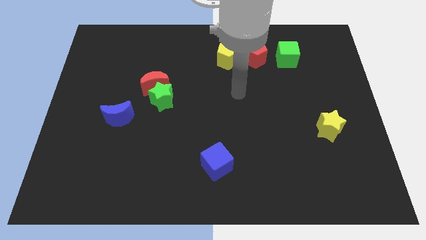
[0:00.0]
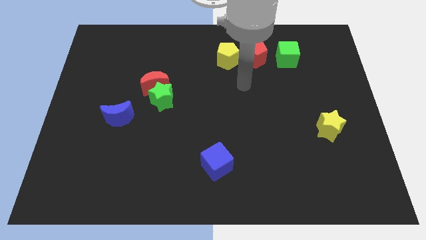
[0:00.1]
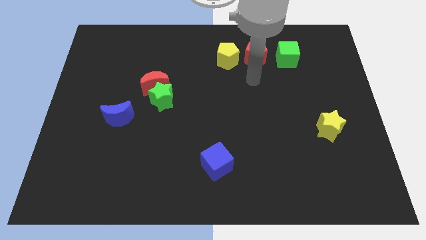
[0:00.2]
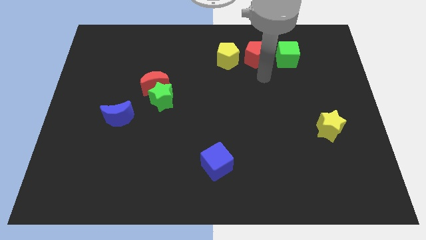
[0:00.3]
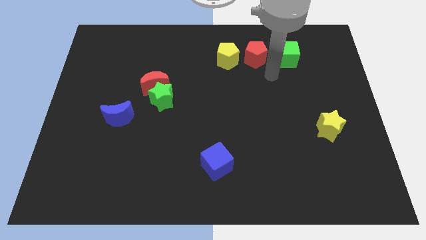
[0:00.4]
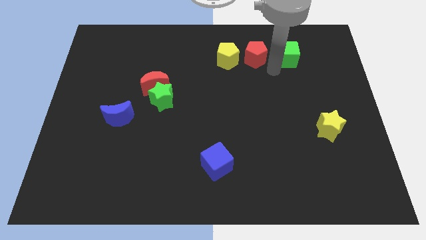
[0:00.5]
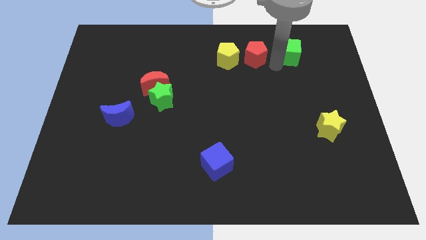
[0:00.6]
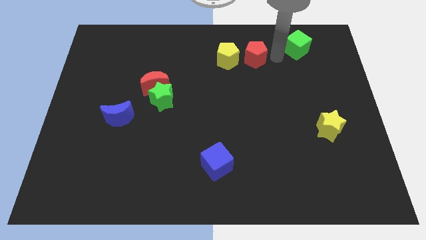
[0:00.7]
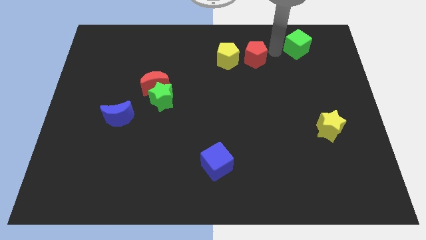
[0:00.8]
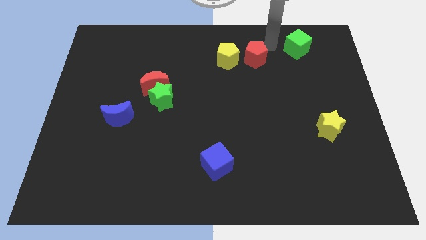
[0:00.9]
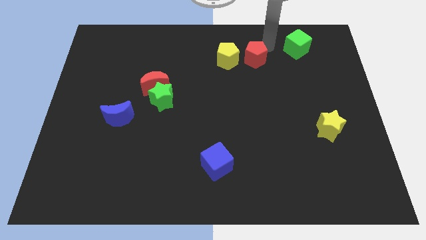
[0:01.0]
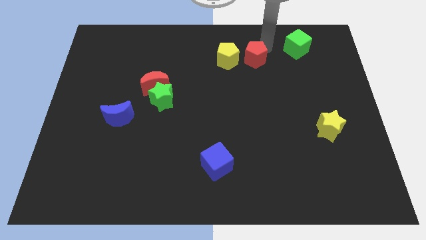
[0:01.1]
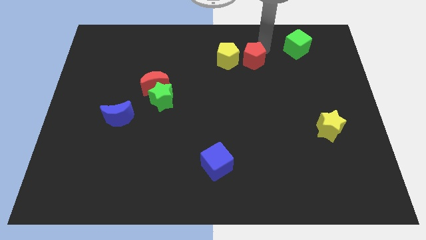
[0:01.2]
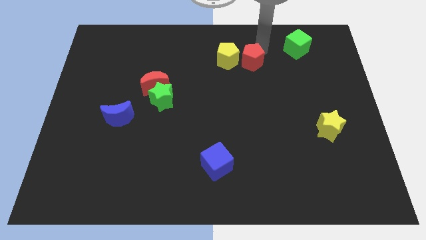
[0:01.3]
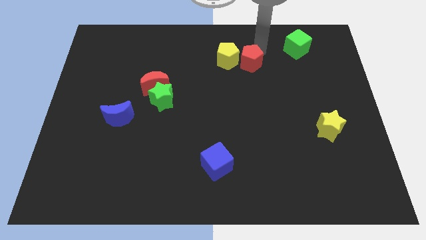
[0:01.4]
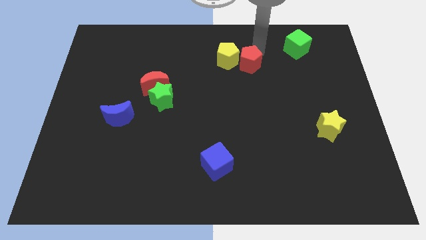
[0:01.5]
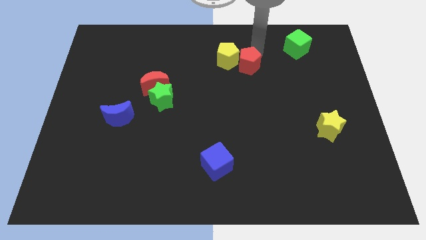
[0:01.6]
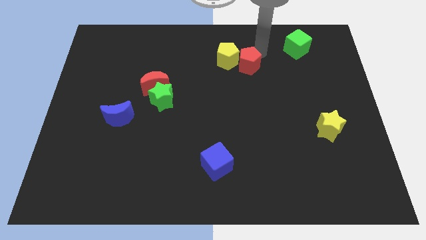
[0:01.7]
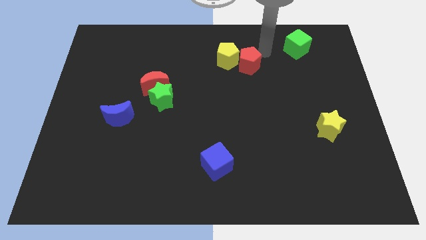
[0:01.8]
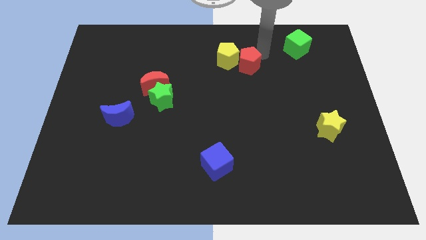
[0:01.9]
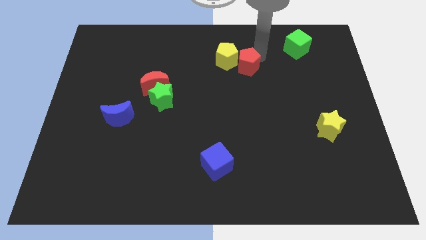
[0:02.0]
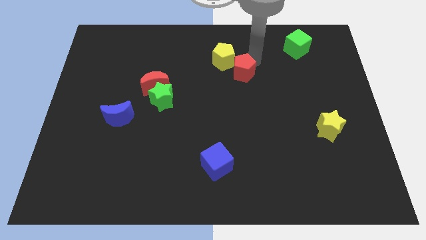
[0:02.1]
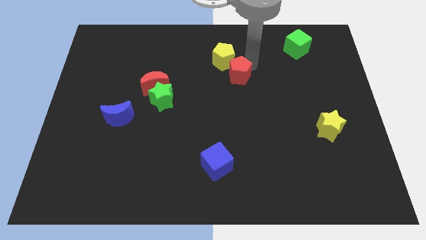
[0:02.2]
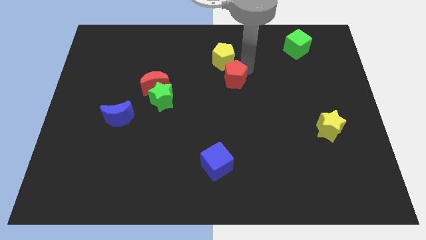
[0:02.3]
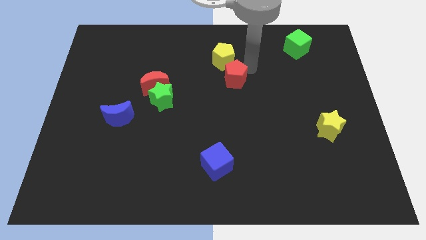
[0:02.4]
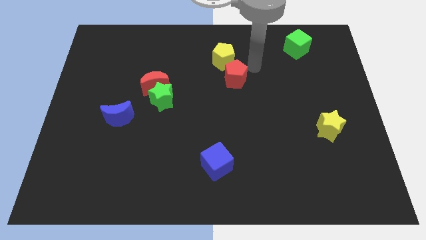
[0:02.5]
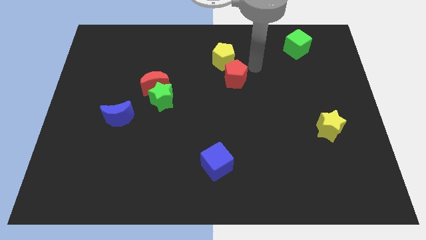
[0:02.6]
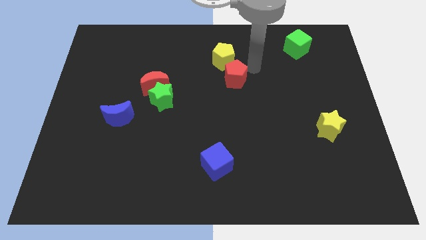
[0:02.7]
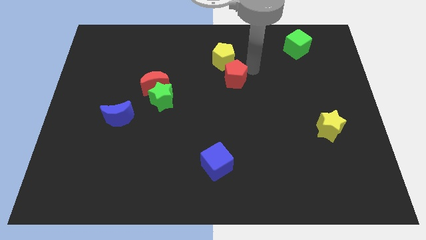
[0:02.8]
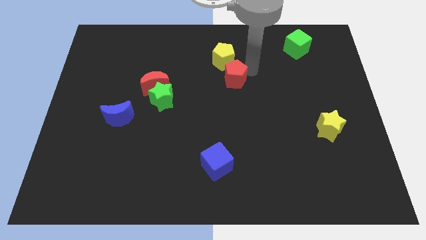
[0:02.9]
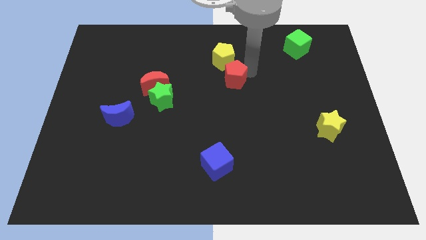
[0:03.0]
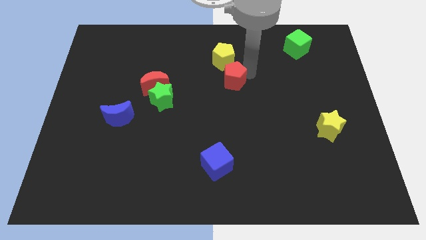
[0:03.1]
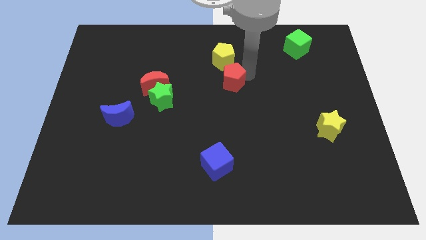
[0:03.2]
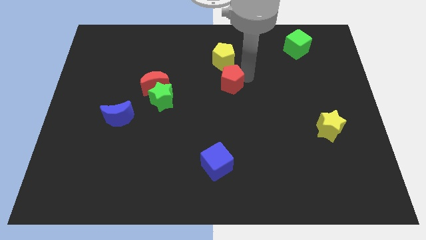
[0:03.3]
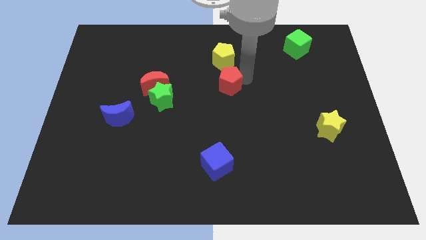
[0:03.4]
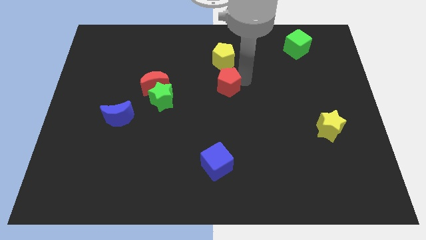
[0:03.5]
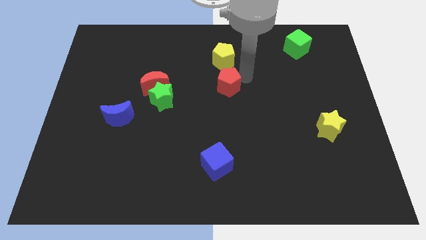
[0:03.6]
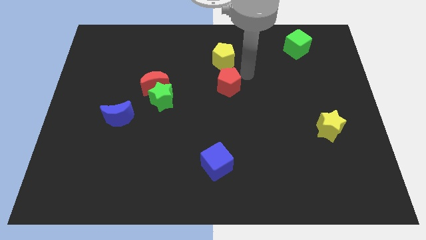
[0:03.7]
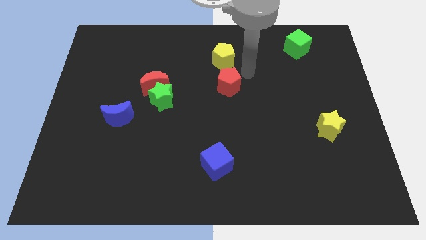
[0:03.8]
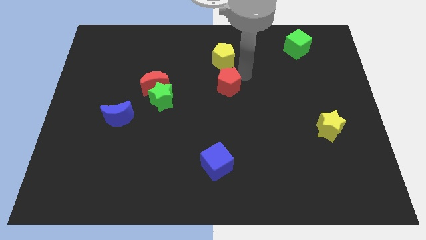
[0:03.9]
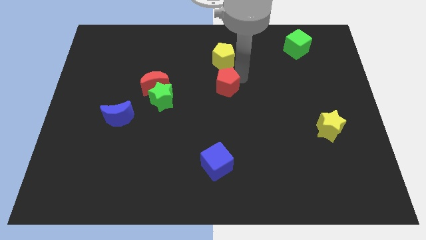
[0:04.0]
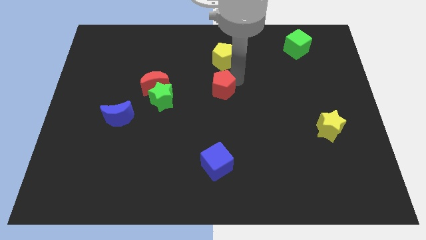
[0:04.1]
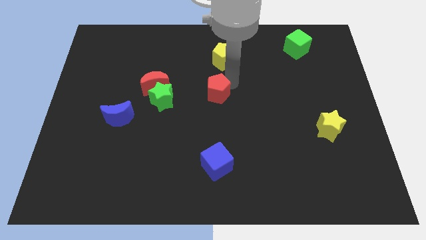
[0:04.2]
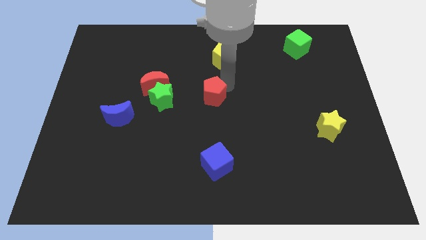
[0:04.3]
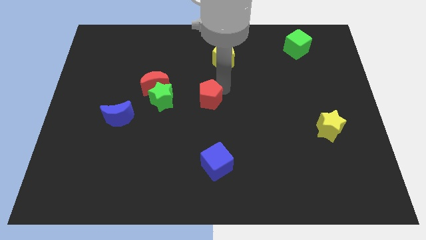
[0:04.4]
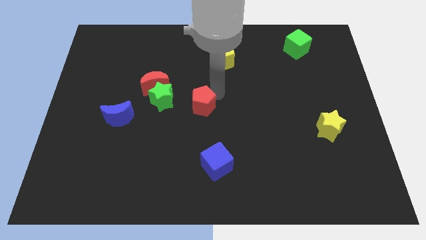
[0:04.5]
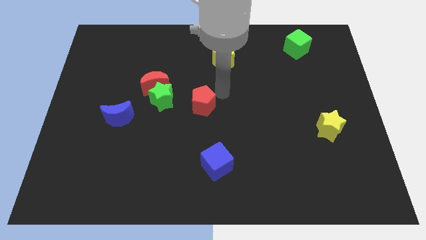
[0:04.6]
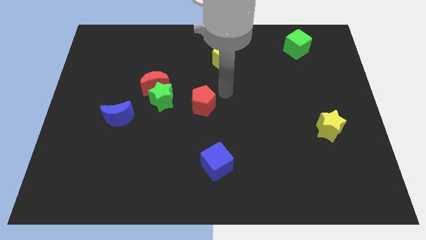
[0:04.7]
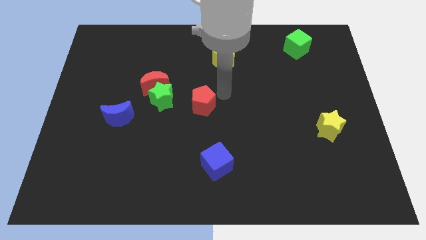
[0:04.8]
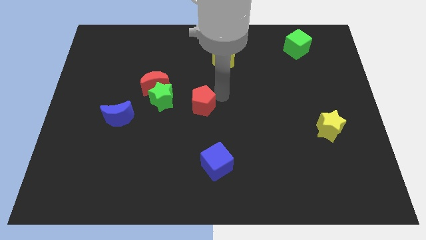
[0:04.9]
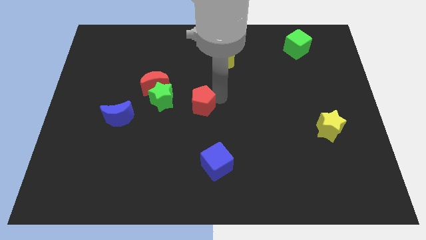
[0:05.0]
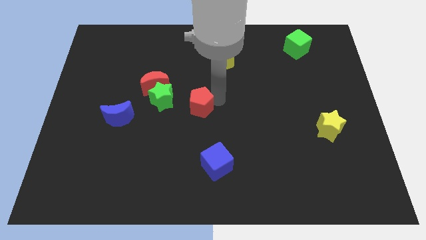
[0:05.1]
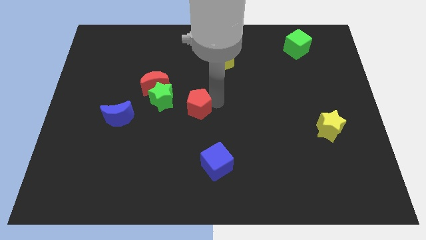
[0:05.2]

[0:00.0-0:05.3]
move the red pentagon to the bottom right of the green star

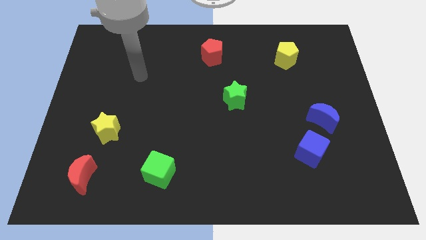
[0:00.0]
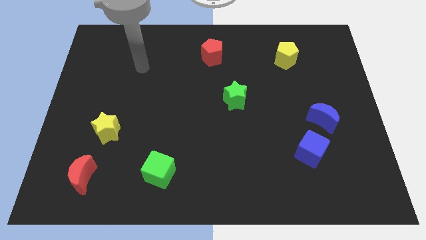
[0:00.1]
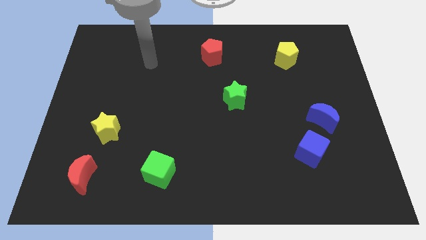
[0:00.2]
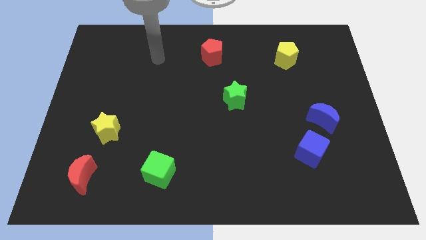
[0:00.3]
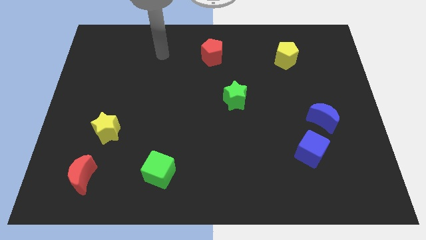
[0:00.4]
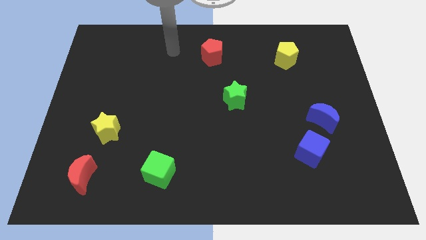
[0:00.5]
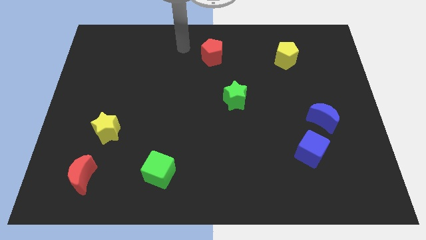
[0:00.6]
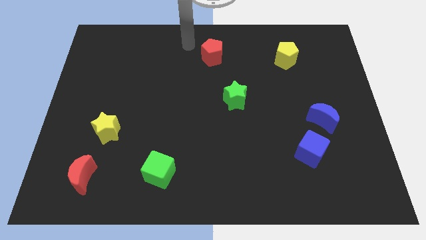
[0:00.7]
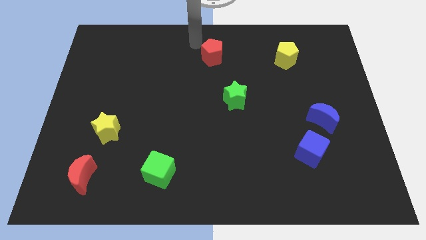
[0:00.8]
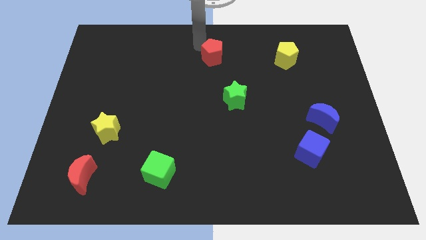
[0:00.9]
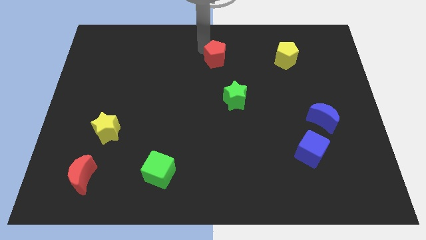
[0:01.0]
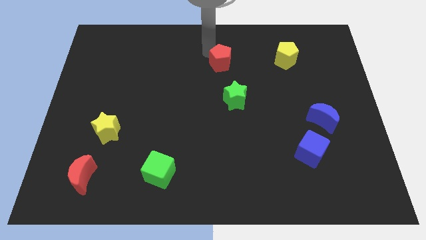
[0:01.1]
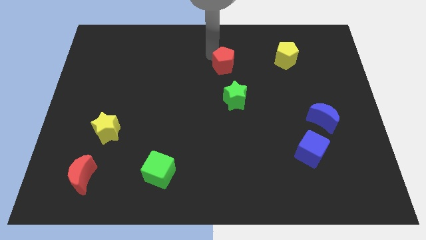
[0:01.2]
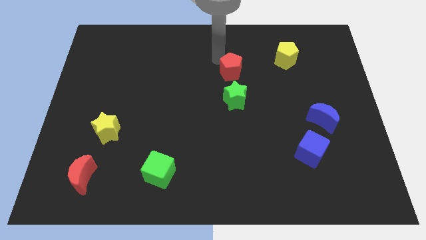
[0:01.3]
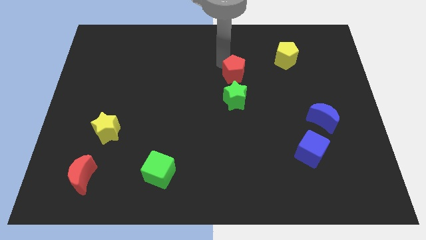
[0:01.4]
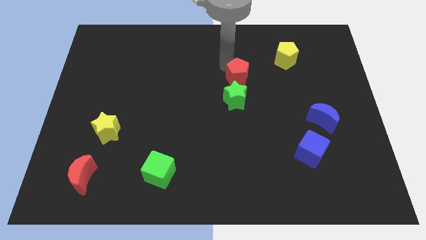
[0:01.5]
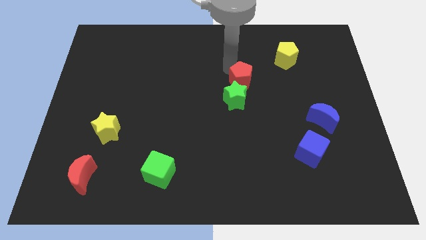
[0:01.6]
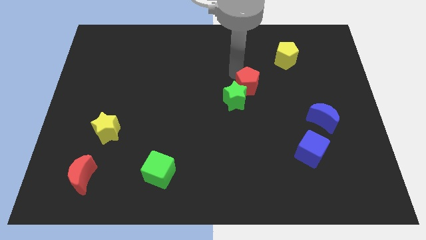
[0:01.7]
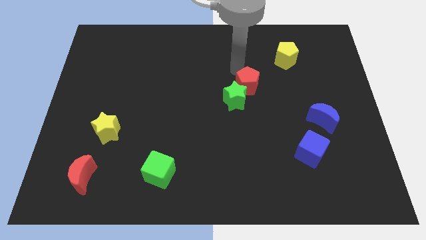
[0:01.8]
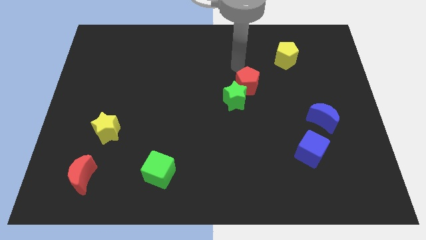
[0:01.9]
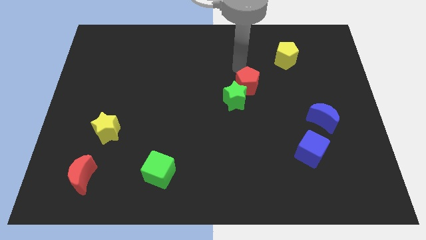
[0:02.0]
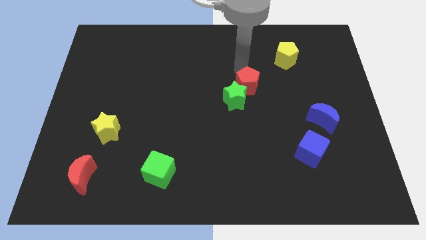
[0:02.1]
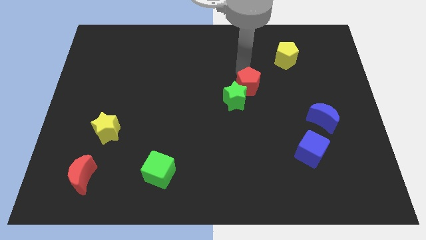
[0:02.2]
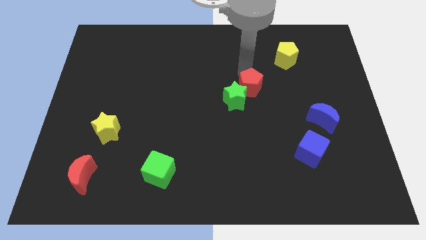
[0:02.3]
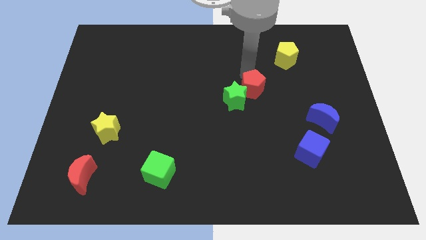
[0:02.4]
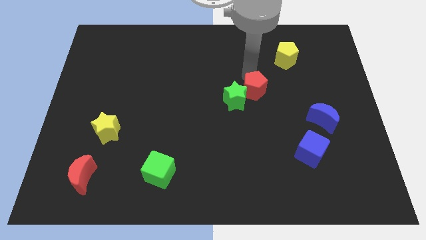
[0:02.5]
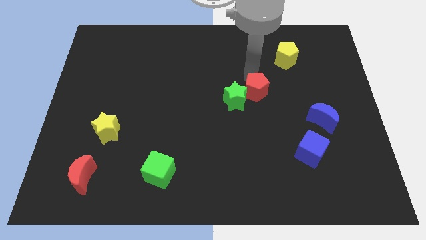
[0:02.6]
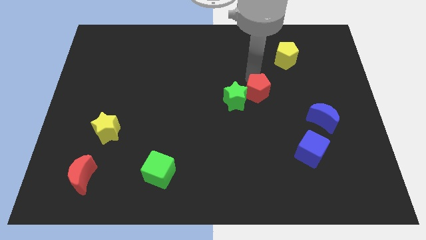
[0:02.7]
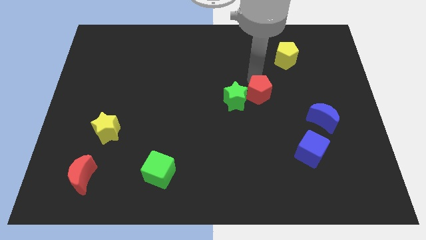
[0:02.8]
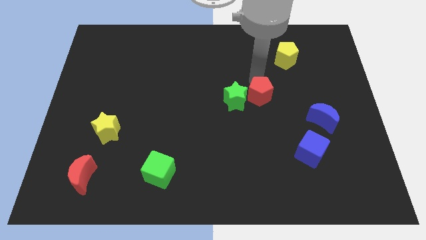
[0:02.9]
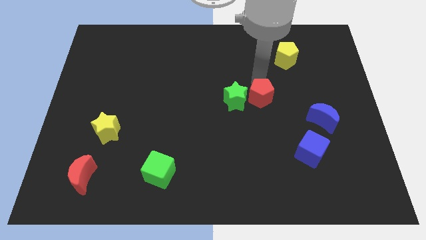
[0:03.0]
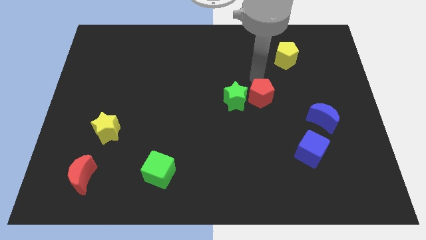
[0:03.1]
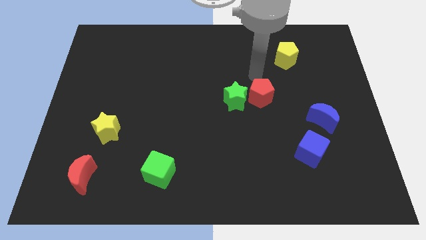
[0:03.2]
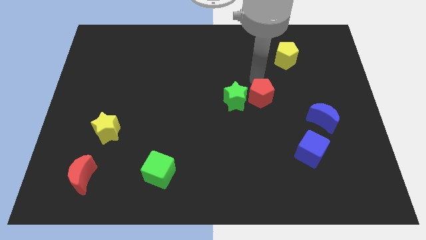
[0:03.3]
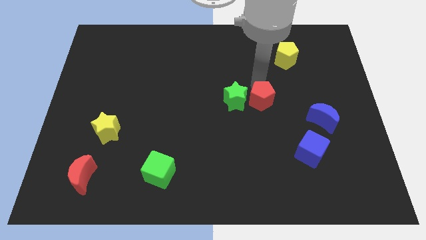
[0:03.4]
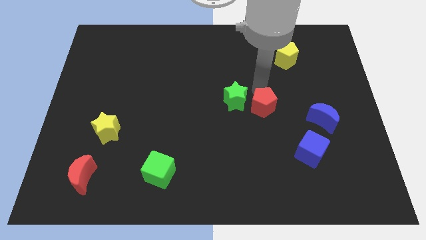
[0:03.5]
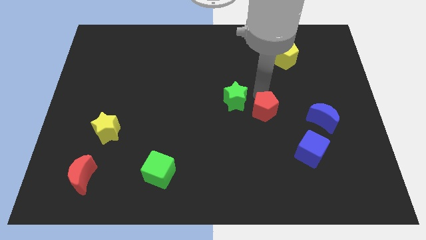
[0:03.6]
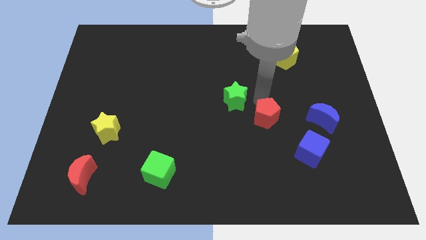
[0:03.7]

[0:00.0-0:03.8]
put the red pentagon diagonally up and to the left of the blue cube
